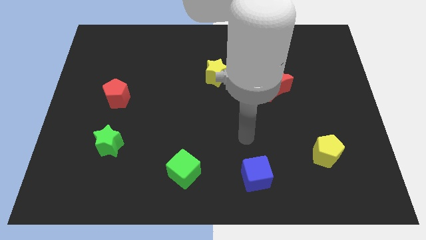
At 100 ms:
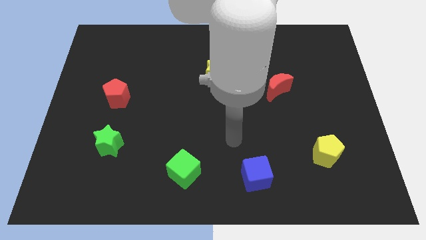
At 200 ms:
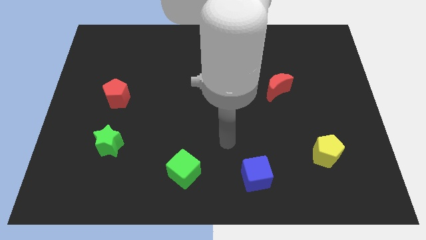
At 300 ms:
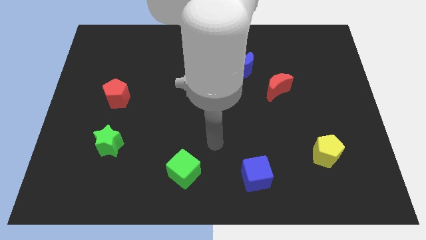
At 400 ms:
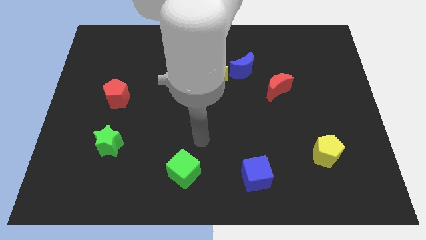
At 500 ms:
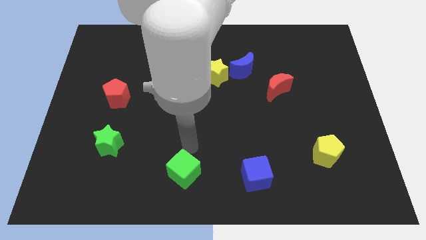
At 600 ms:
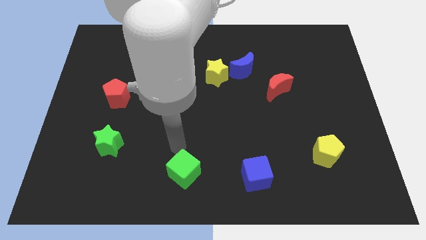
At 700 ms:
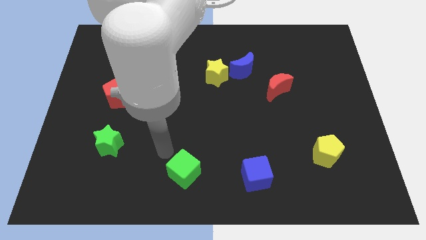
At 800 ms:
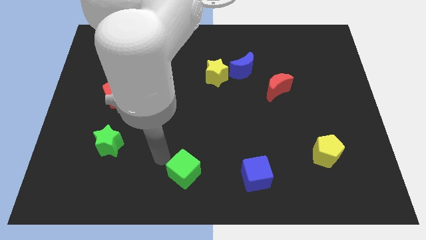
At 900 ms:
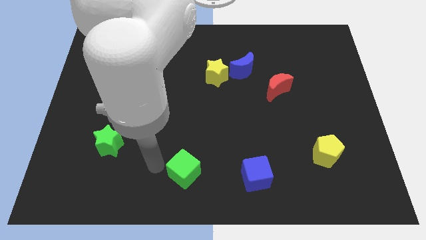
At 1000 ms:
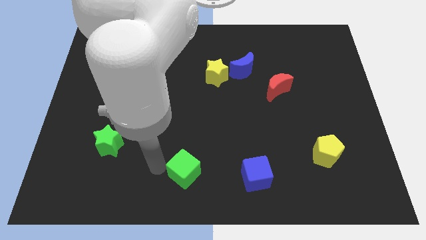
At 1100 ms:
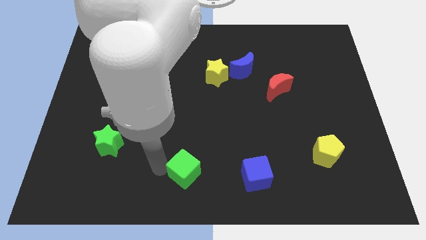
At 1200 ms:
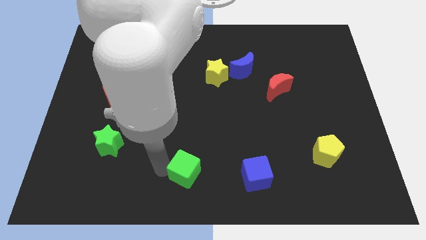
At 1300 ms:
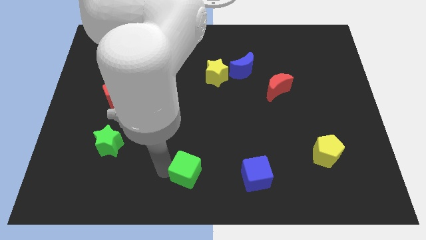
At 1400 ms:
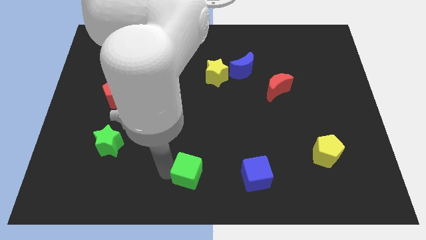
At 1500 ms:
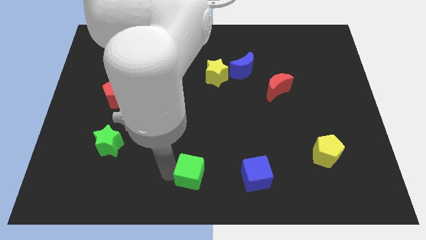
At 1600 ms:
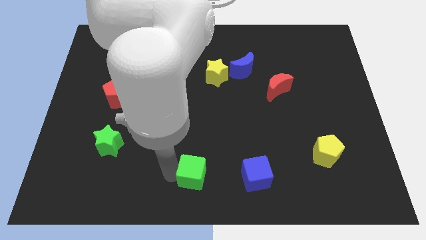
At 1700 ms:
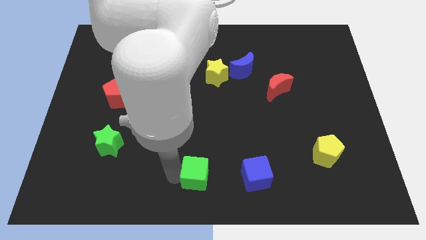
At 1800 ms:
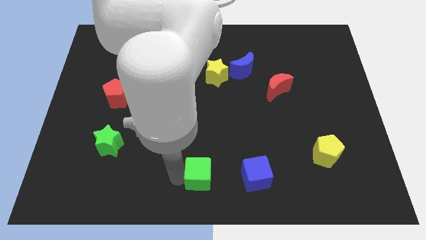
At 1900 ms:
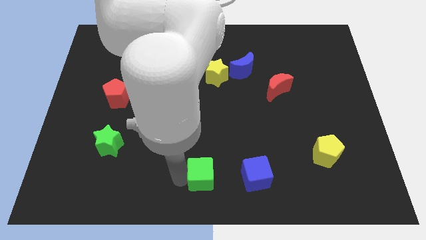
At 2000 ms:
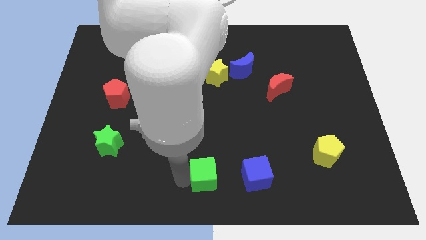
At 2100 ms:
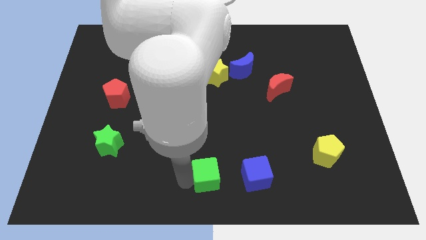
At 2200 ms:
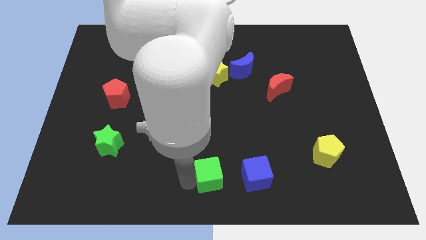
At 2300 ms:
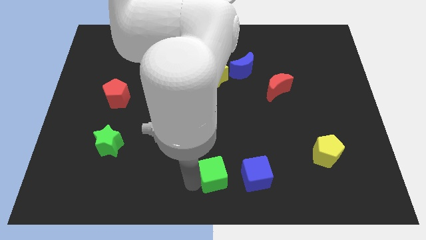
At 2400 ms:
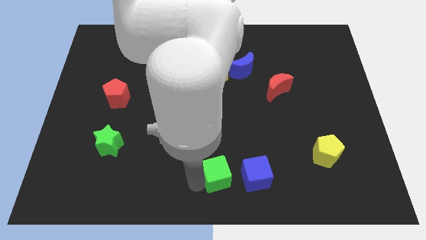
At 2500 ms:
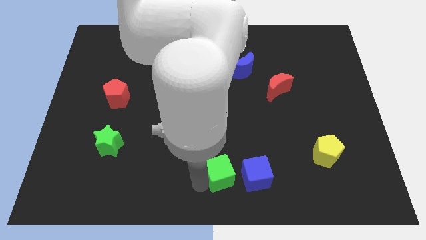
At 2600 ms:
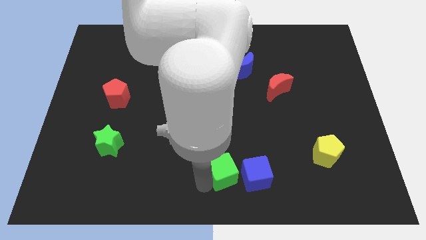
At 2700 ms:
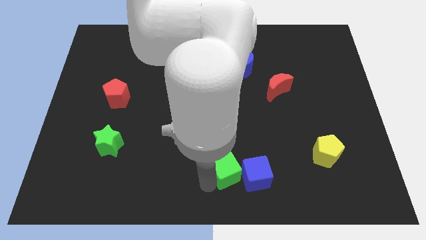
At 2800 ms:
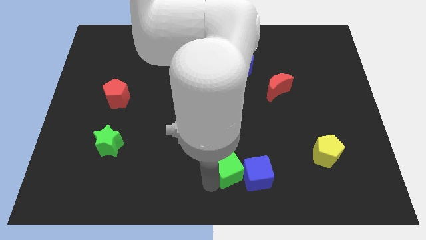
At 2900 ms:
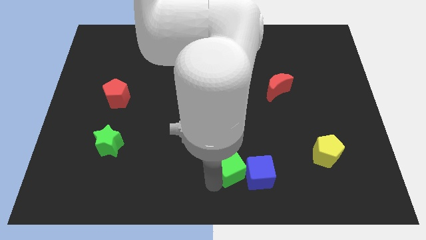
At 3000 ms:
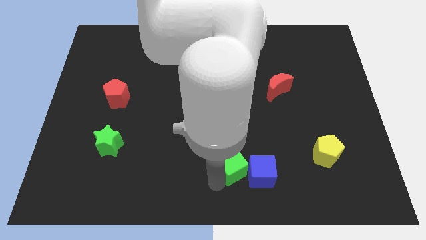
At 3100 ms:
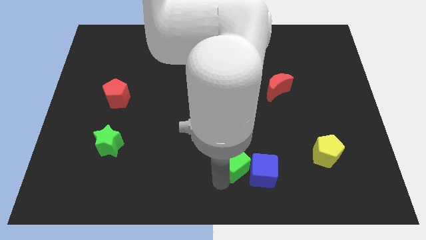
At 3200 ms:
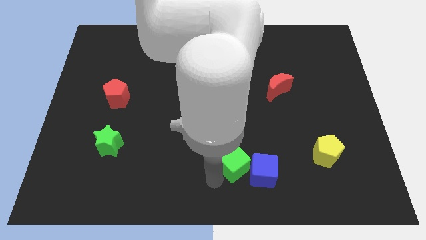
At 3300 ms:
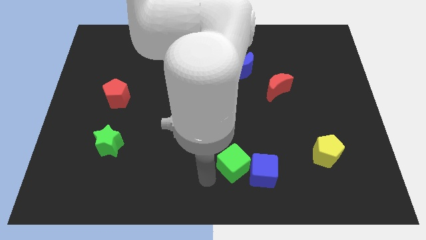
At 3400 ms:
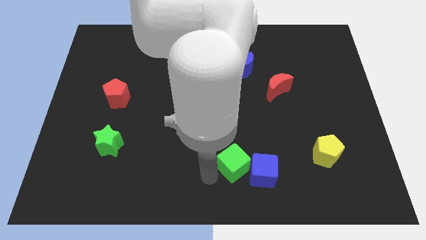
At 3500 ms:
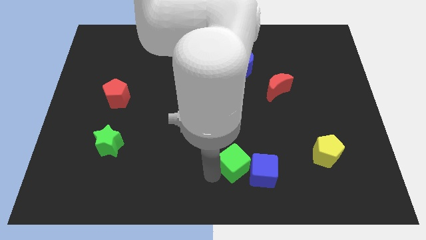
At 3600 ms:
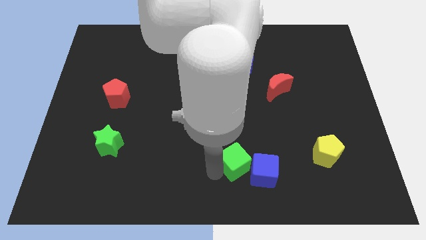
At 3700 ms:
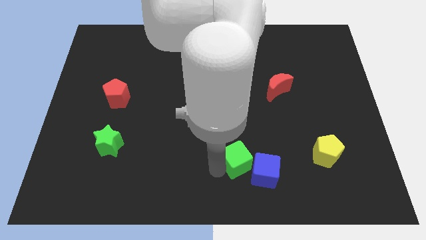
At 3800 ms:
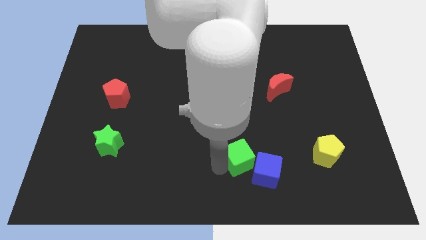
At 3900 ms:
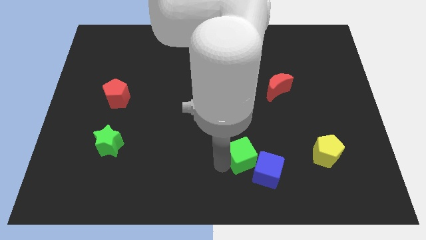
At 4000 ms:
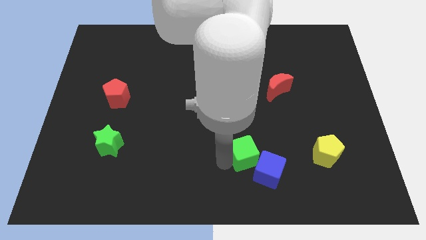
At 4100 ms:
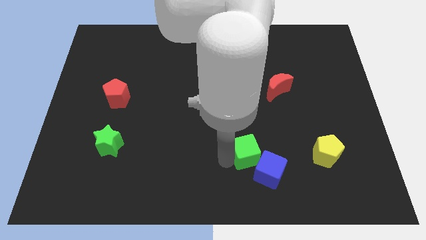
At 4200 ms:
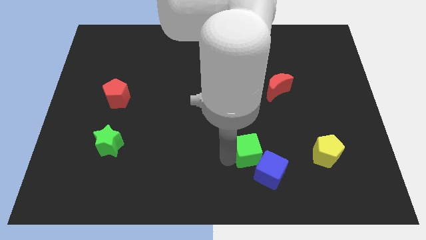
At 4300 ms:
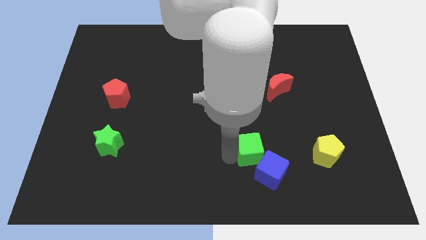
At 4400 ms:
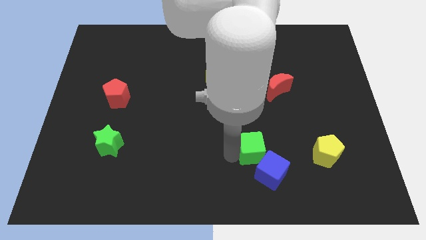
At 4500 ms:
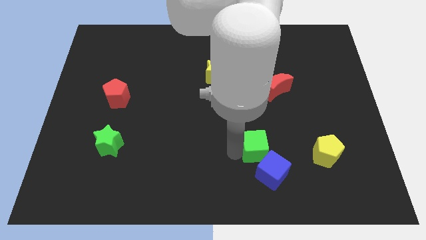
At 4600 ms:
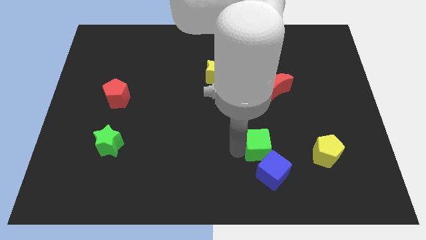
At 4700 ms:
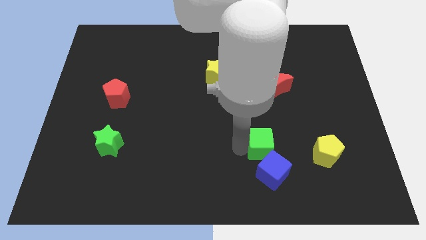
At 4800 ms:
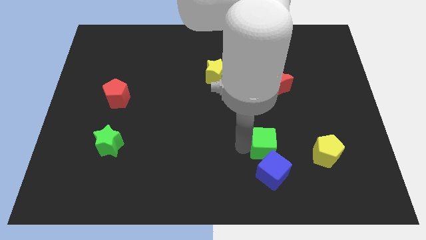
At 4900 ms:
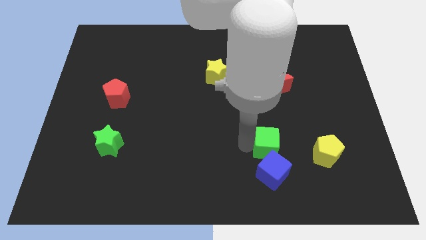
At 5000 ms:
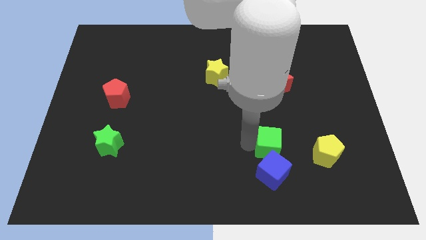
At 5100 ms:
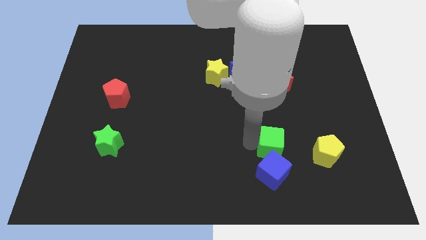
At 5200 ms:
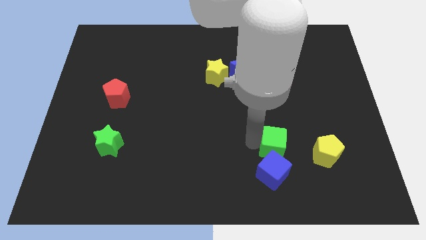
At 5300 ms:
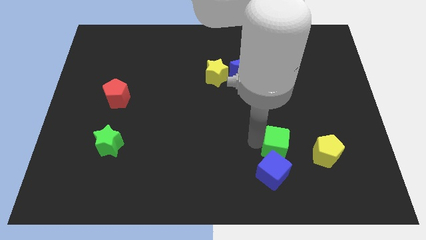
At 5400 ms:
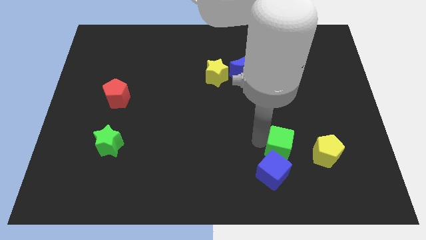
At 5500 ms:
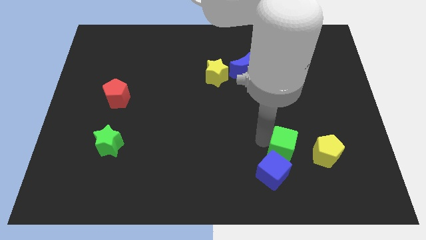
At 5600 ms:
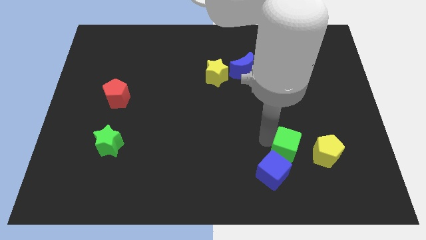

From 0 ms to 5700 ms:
slide the green cube to the right

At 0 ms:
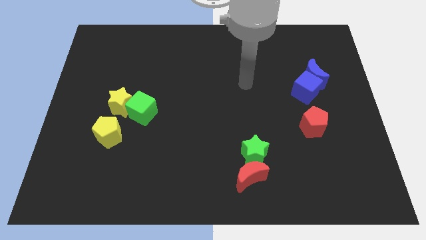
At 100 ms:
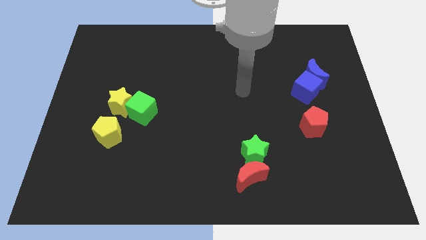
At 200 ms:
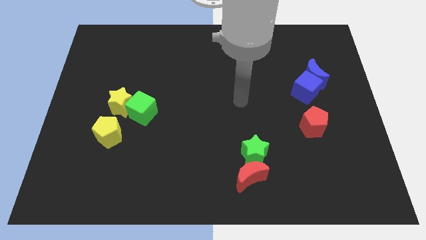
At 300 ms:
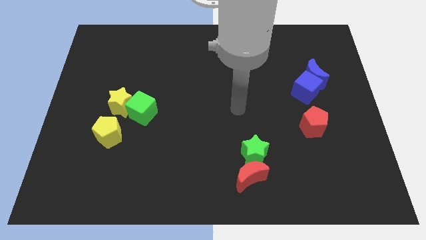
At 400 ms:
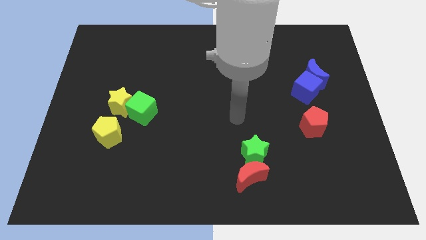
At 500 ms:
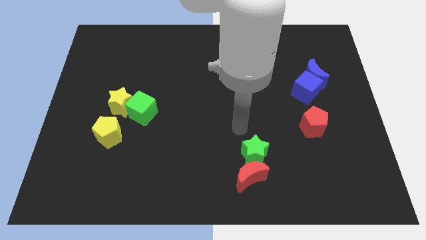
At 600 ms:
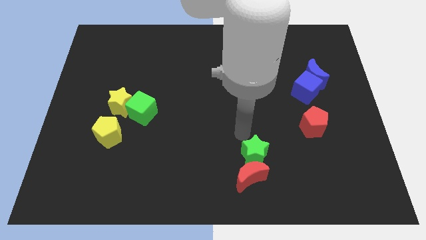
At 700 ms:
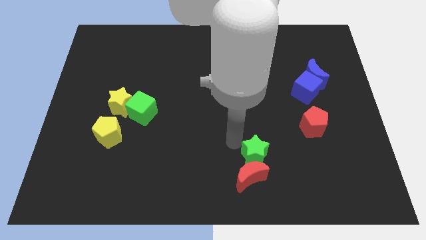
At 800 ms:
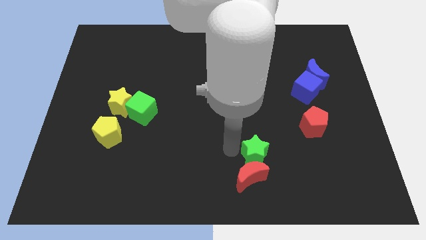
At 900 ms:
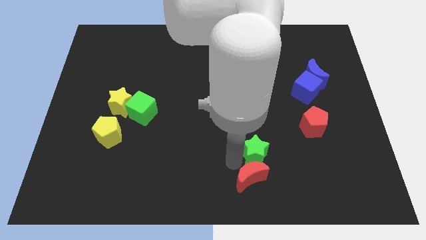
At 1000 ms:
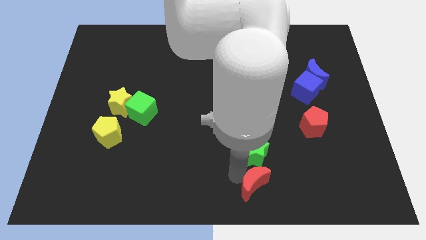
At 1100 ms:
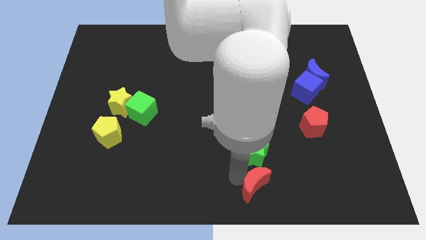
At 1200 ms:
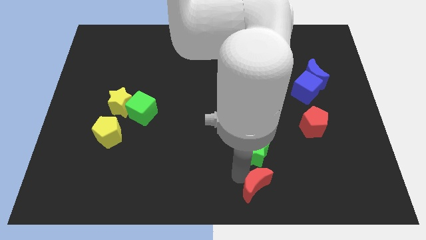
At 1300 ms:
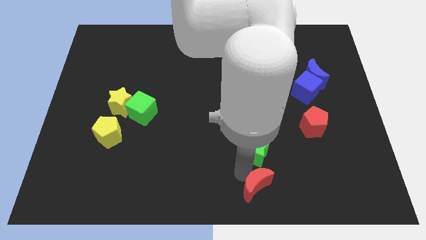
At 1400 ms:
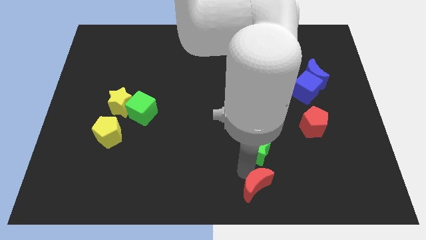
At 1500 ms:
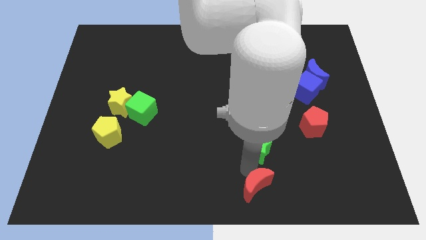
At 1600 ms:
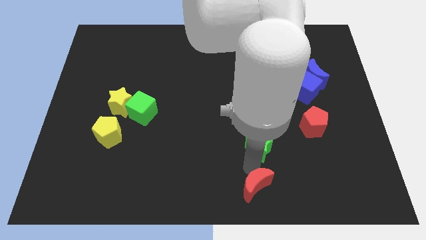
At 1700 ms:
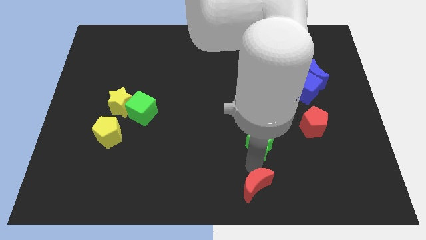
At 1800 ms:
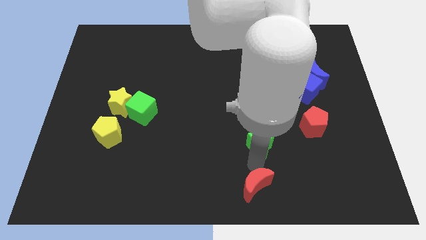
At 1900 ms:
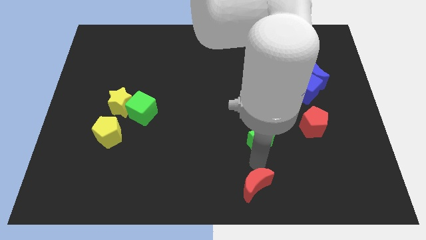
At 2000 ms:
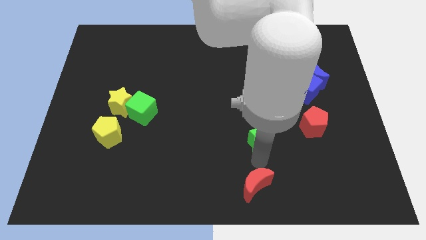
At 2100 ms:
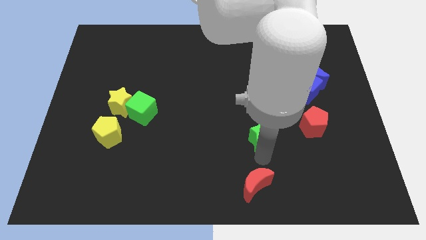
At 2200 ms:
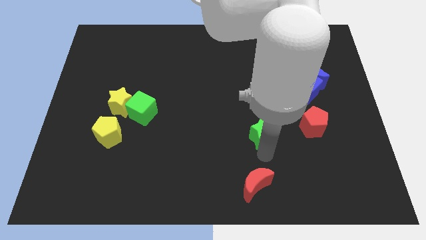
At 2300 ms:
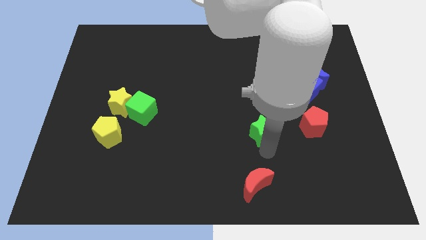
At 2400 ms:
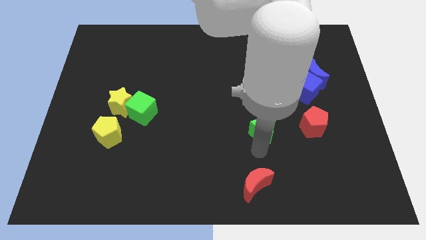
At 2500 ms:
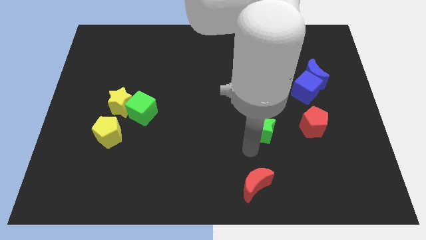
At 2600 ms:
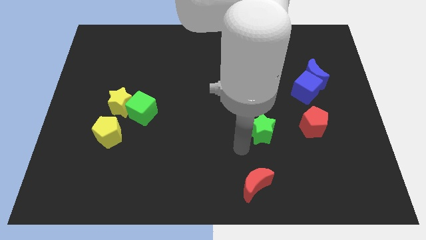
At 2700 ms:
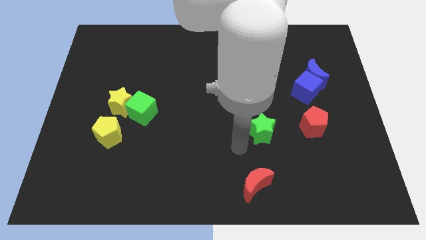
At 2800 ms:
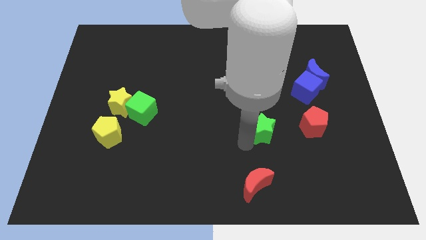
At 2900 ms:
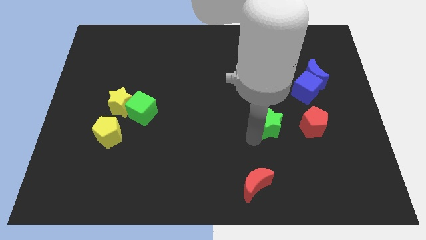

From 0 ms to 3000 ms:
push the green star slightly upwards and to the right
